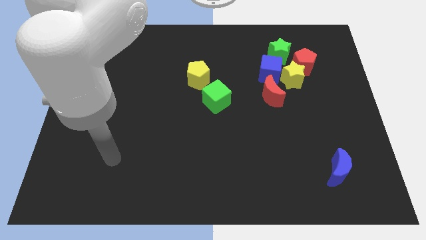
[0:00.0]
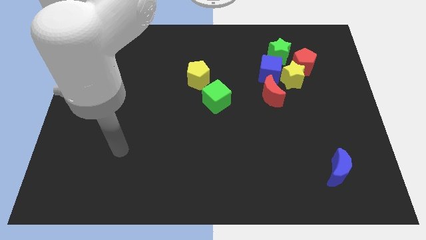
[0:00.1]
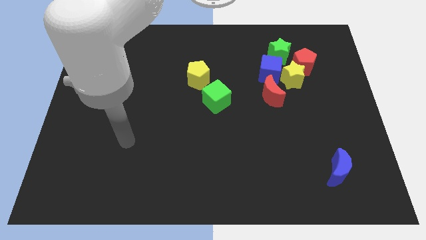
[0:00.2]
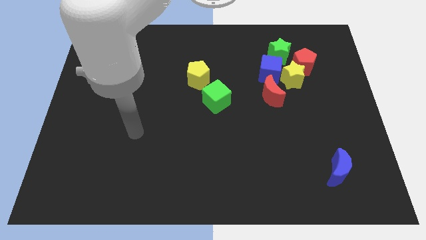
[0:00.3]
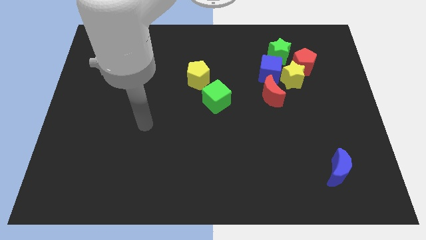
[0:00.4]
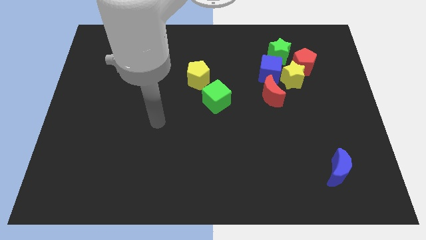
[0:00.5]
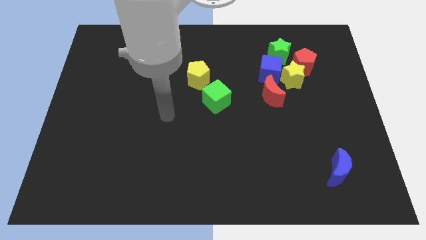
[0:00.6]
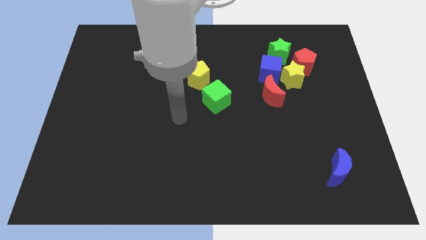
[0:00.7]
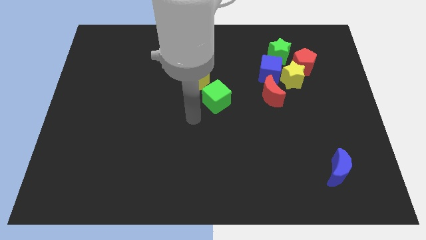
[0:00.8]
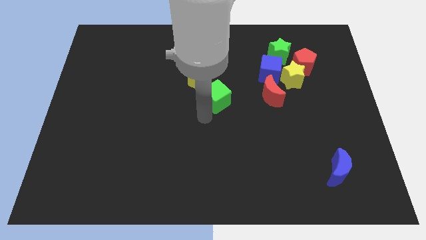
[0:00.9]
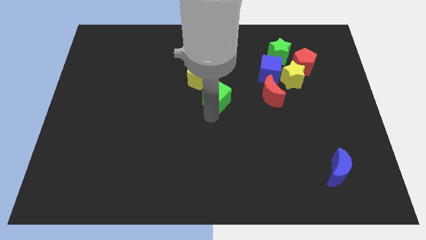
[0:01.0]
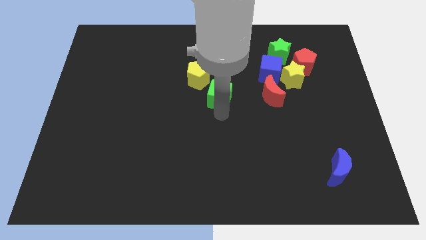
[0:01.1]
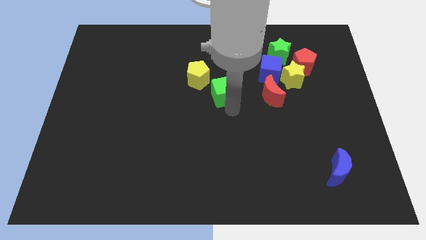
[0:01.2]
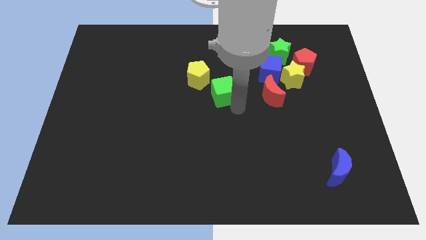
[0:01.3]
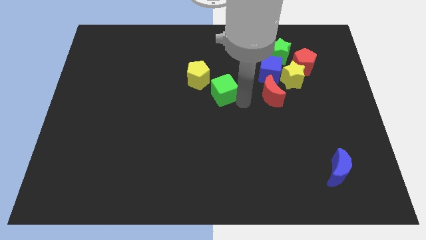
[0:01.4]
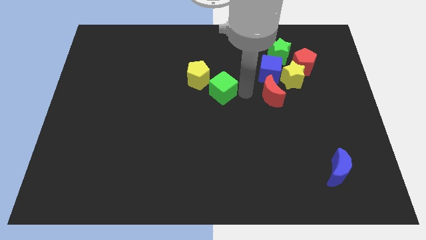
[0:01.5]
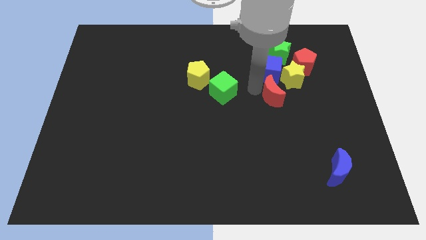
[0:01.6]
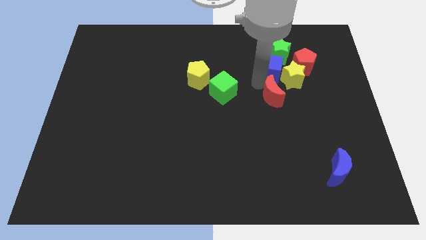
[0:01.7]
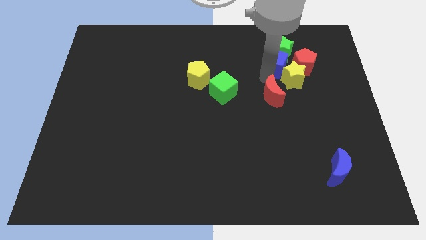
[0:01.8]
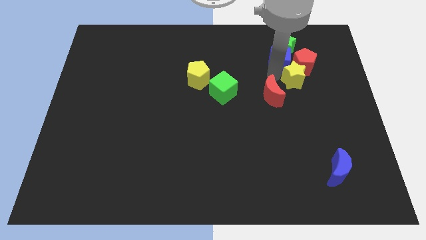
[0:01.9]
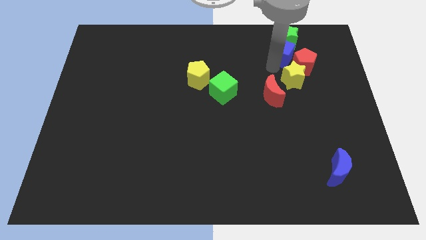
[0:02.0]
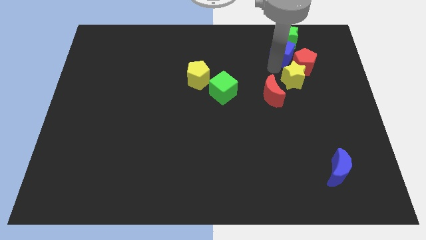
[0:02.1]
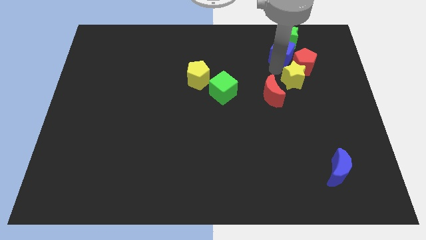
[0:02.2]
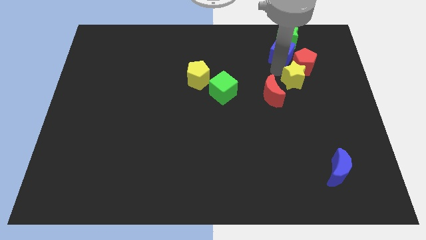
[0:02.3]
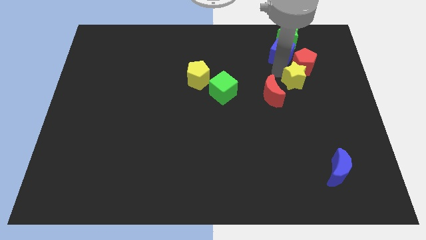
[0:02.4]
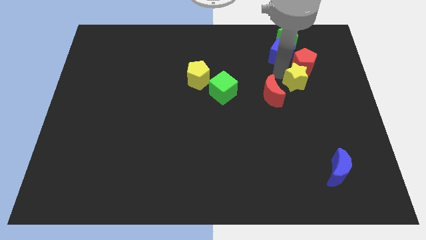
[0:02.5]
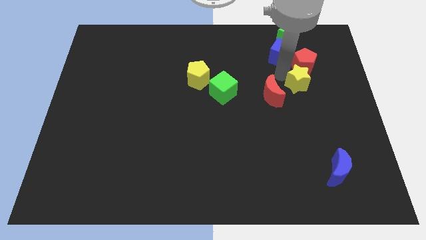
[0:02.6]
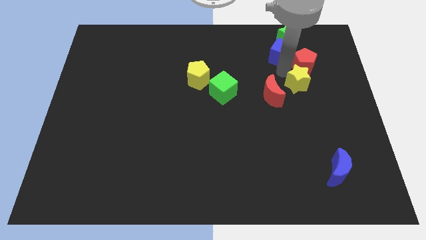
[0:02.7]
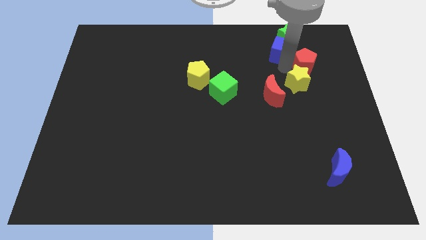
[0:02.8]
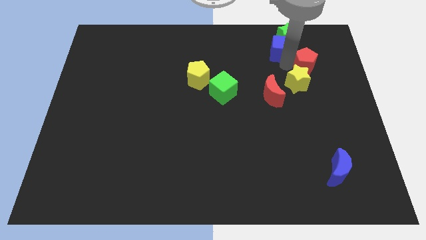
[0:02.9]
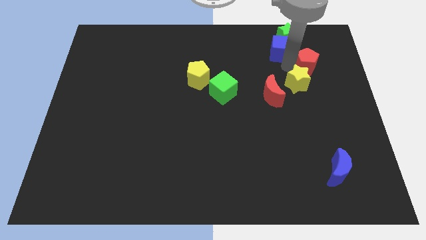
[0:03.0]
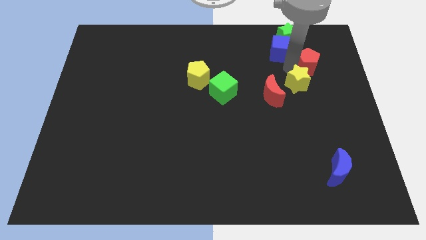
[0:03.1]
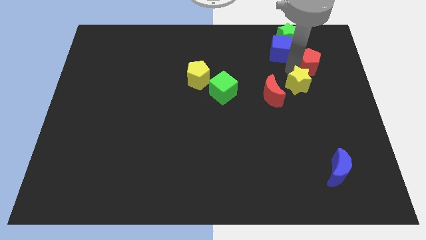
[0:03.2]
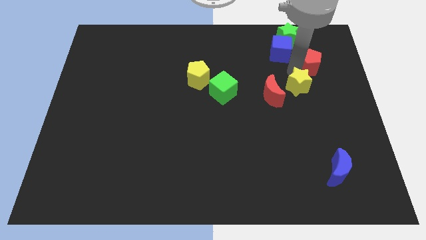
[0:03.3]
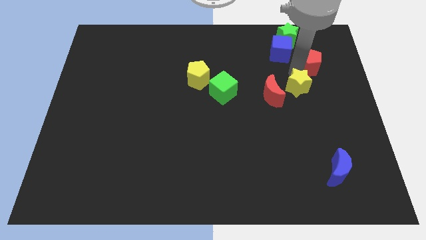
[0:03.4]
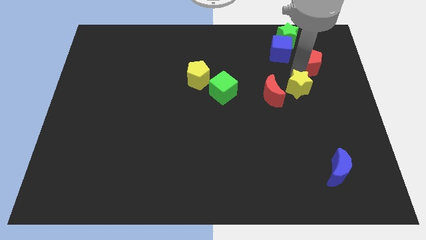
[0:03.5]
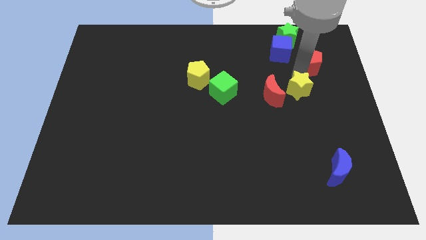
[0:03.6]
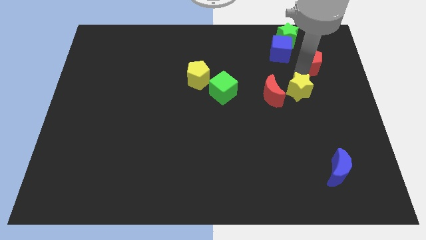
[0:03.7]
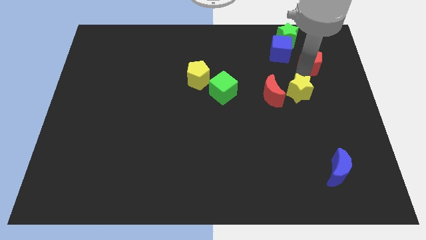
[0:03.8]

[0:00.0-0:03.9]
move the yellow star away from the group

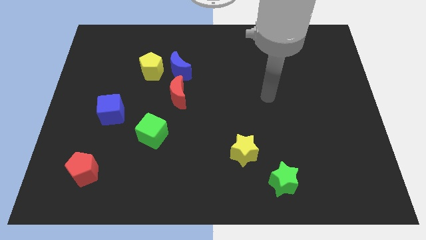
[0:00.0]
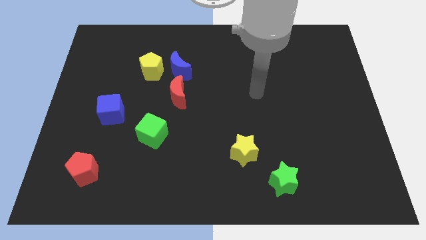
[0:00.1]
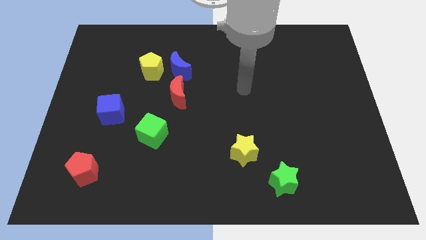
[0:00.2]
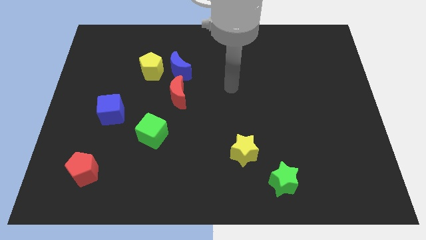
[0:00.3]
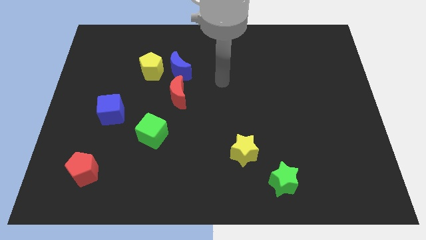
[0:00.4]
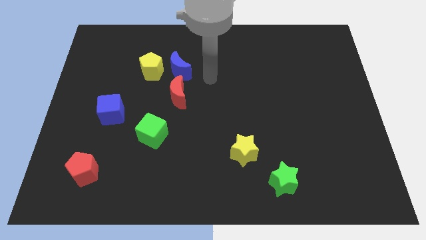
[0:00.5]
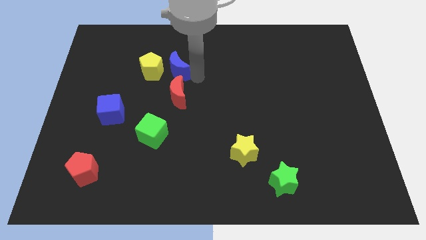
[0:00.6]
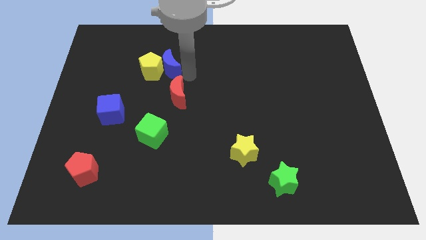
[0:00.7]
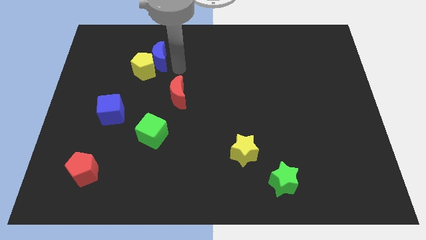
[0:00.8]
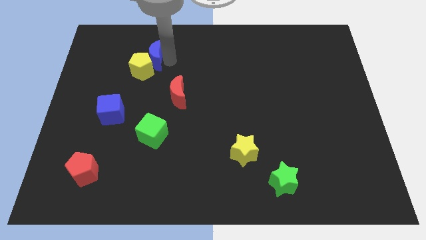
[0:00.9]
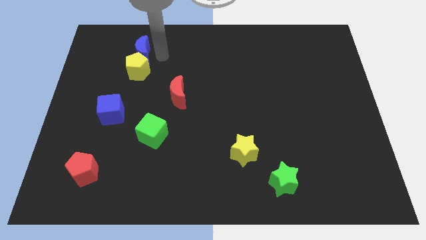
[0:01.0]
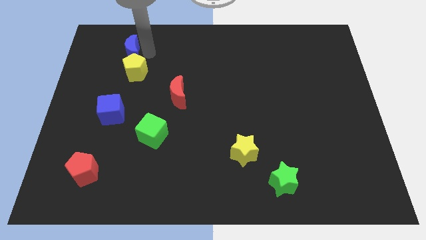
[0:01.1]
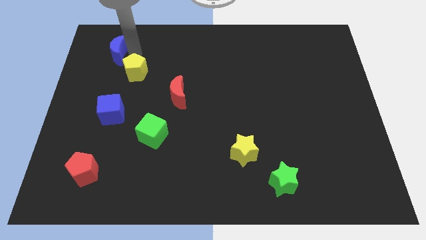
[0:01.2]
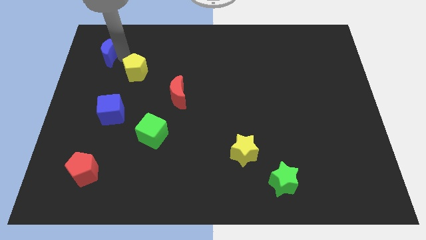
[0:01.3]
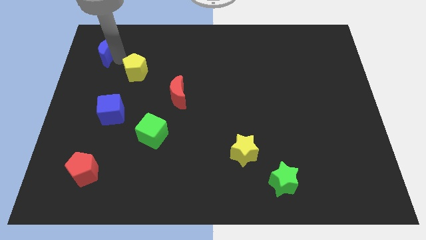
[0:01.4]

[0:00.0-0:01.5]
pull the yellow pentagon apart from the blue moon

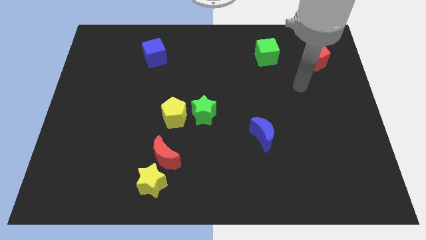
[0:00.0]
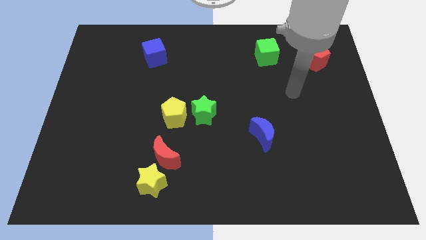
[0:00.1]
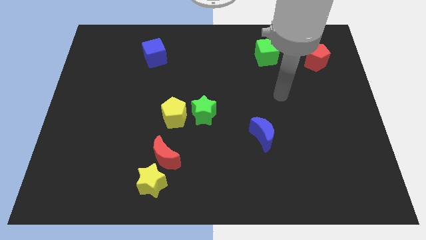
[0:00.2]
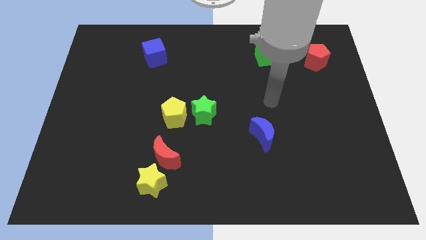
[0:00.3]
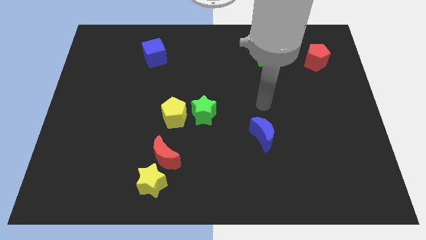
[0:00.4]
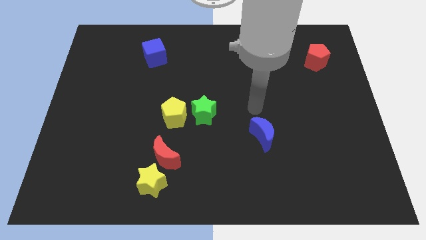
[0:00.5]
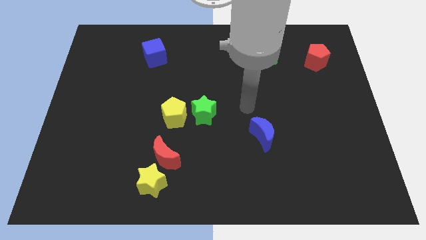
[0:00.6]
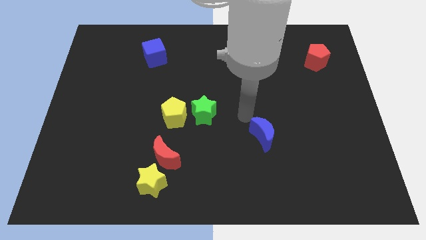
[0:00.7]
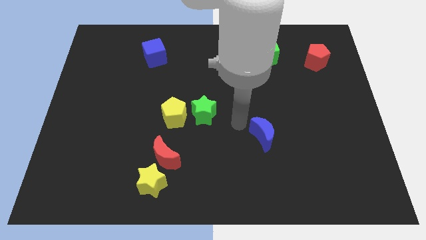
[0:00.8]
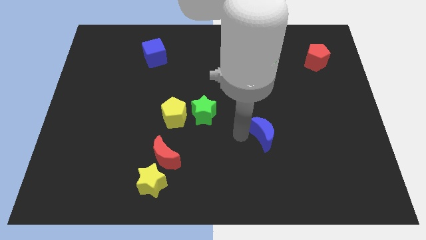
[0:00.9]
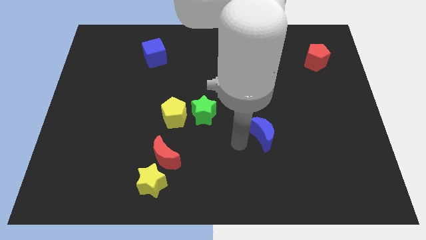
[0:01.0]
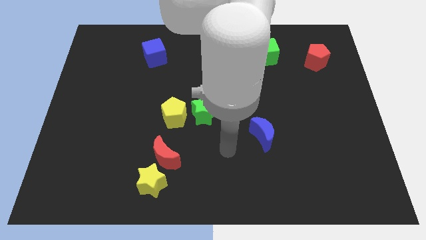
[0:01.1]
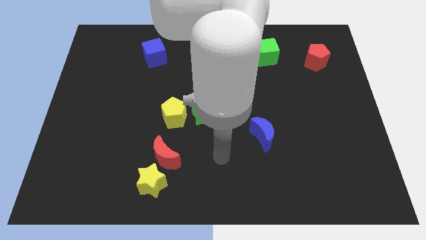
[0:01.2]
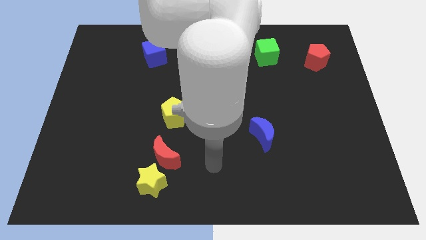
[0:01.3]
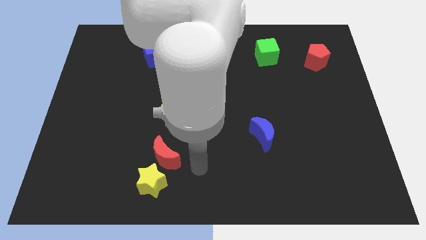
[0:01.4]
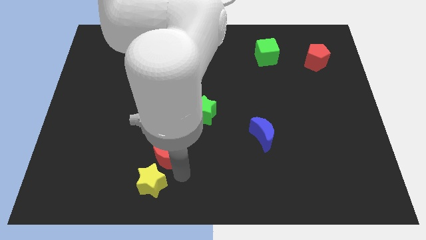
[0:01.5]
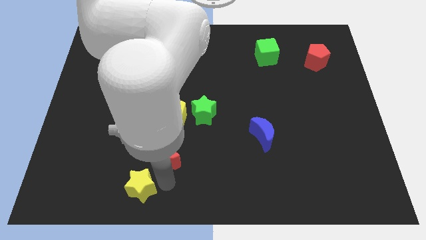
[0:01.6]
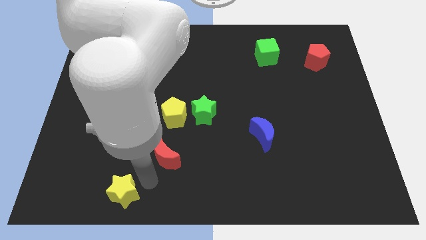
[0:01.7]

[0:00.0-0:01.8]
move the red moon away from the yellow star

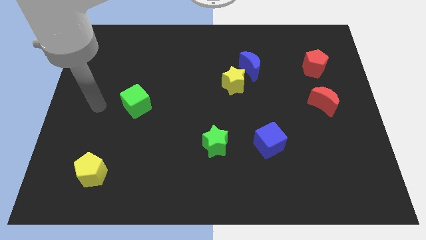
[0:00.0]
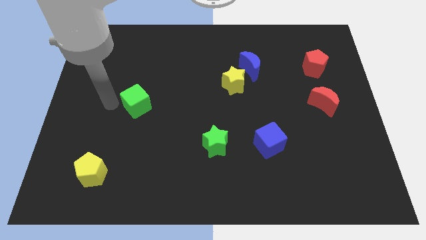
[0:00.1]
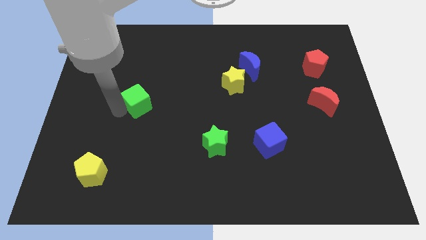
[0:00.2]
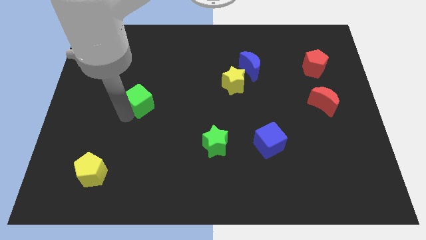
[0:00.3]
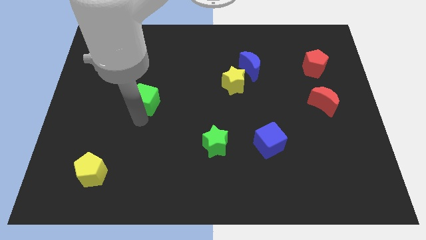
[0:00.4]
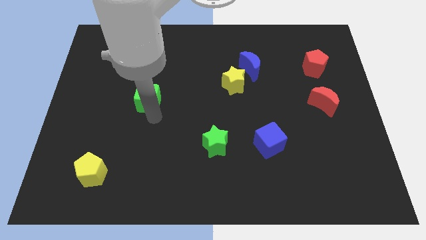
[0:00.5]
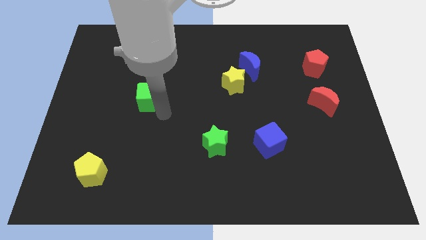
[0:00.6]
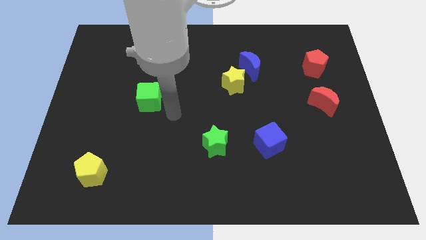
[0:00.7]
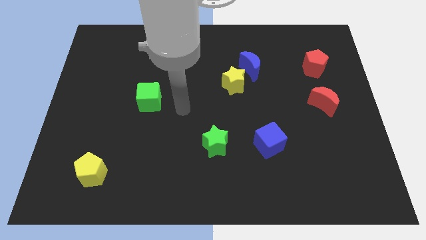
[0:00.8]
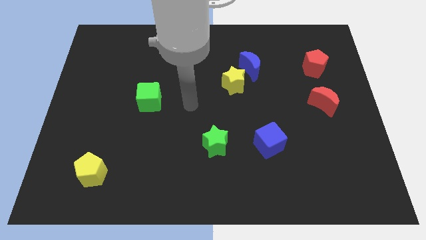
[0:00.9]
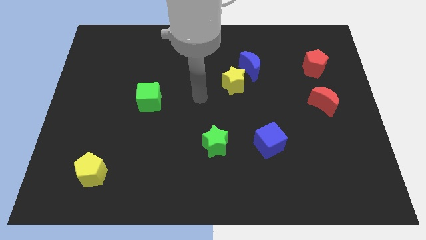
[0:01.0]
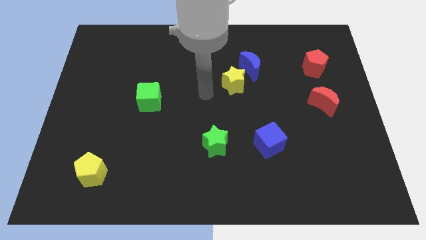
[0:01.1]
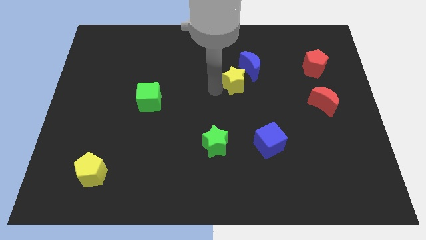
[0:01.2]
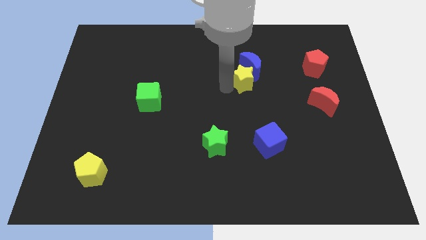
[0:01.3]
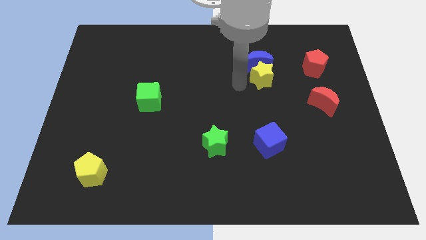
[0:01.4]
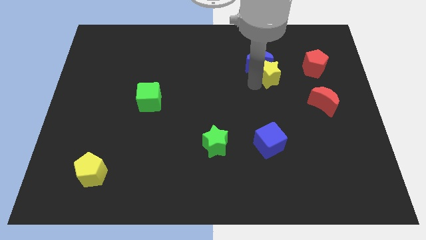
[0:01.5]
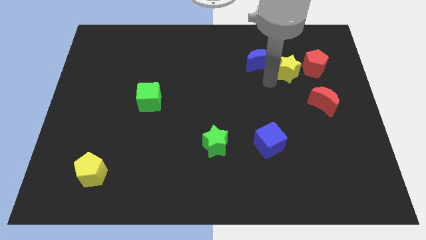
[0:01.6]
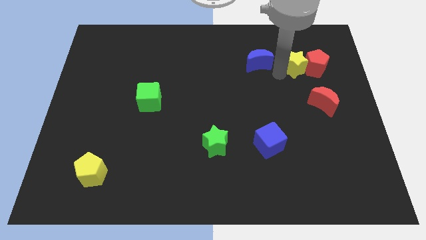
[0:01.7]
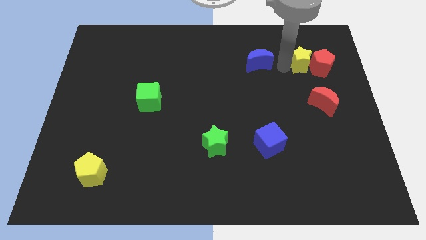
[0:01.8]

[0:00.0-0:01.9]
separate the blue moon from the yellow star

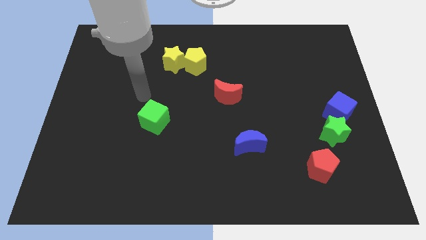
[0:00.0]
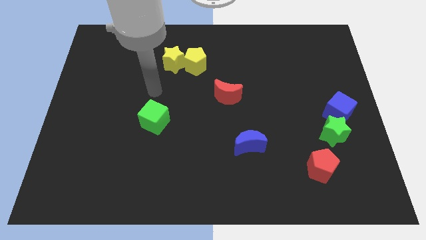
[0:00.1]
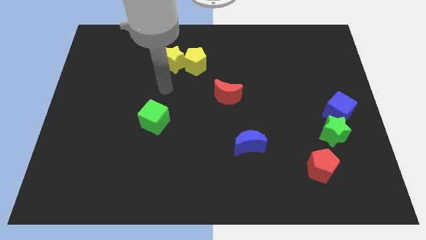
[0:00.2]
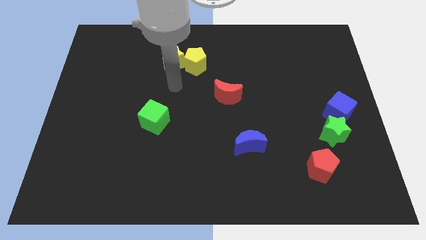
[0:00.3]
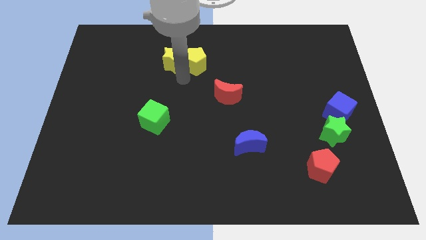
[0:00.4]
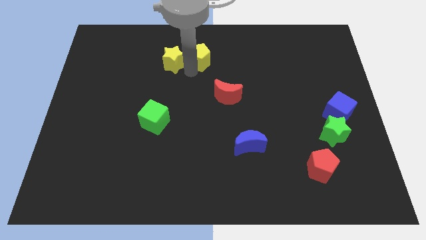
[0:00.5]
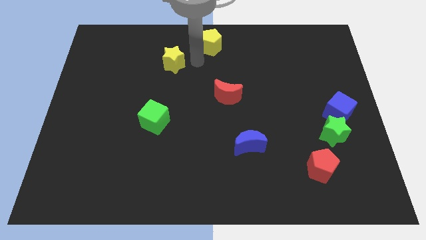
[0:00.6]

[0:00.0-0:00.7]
separate the yellow star from the yellow pentagon
